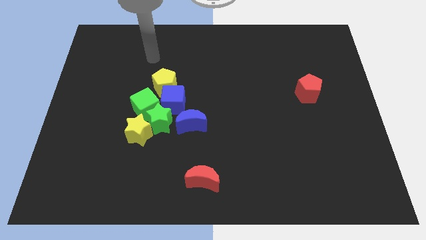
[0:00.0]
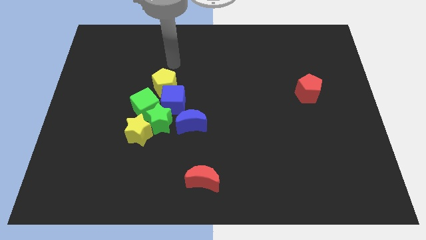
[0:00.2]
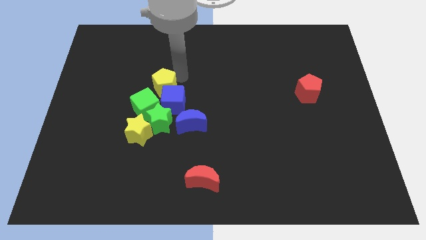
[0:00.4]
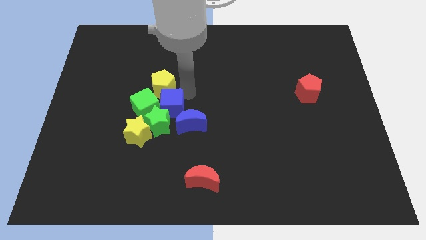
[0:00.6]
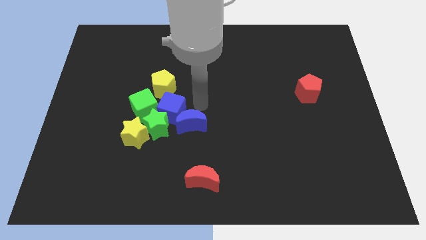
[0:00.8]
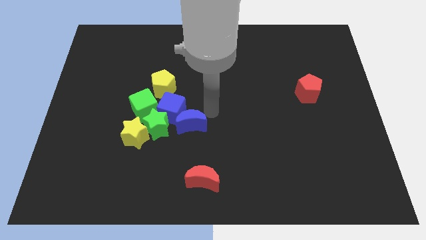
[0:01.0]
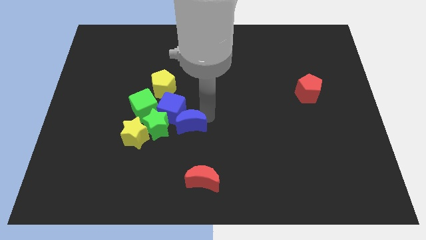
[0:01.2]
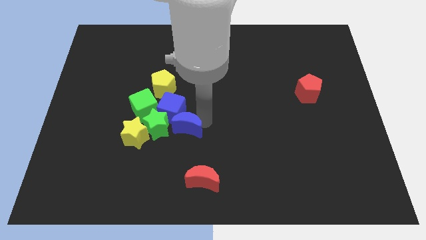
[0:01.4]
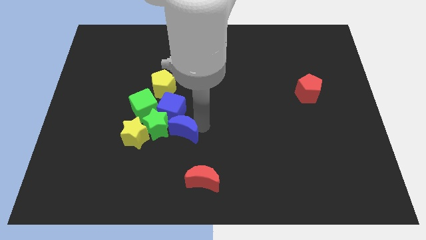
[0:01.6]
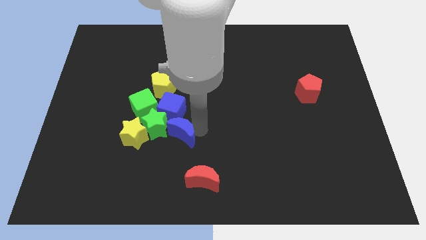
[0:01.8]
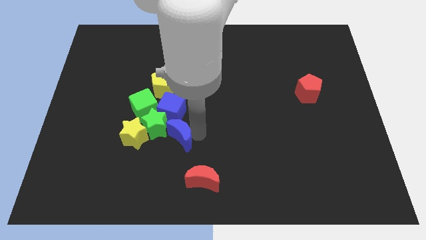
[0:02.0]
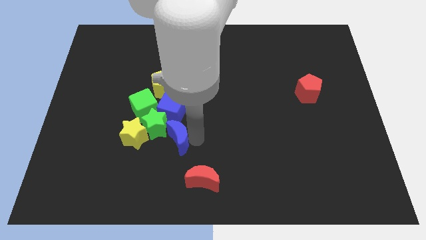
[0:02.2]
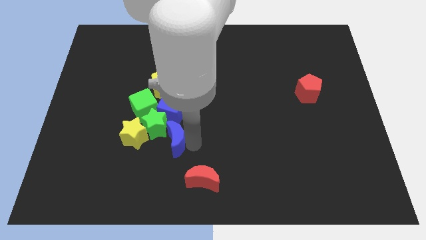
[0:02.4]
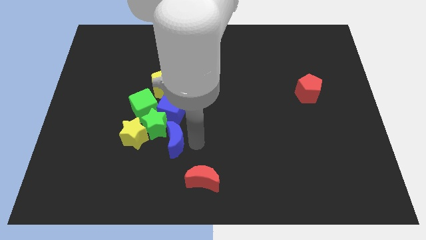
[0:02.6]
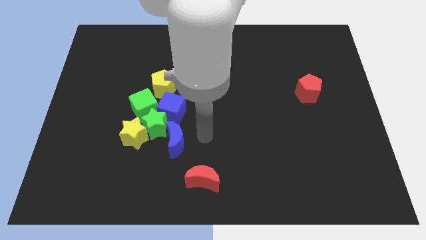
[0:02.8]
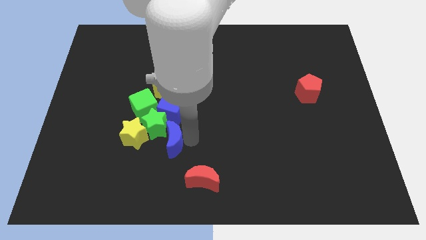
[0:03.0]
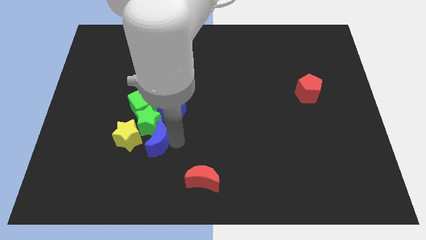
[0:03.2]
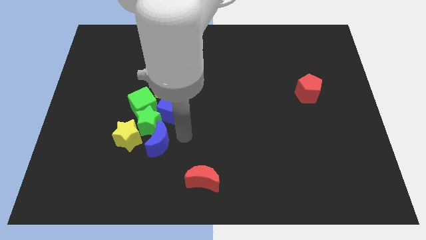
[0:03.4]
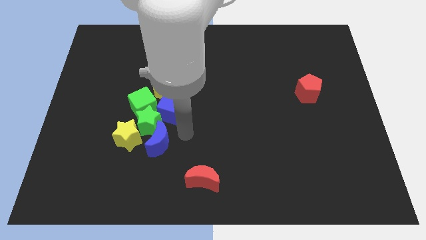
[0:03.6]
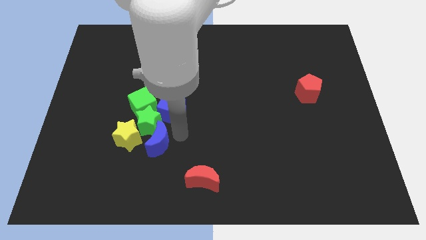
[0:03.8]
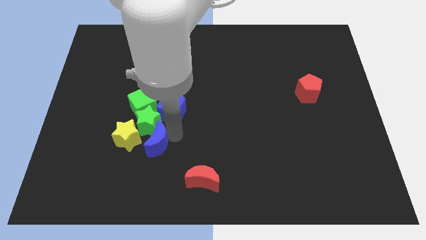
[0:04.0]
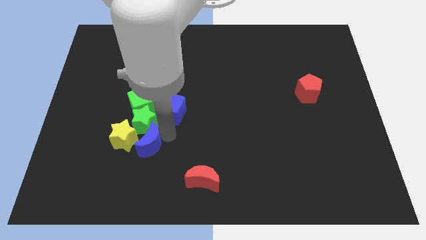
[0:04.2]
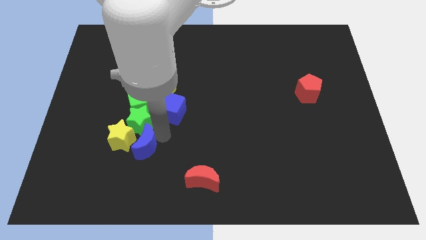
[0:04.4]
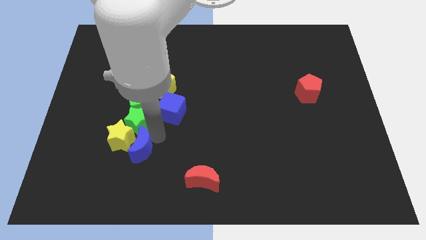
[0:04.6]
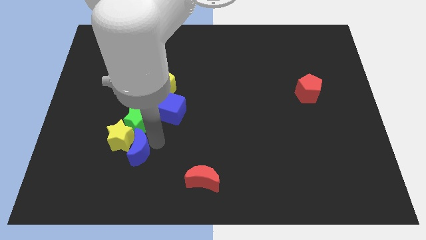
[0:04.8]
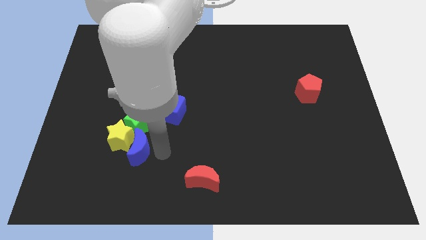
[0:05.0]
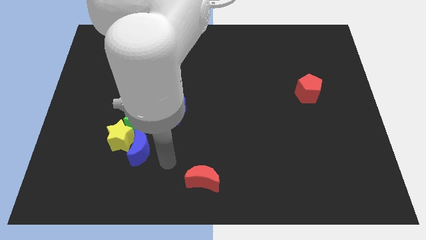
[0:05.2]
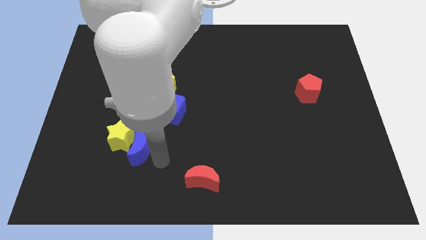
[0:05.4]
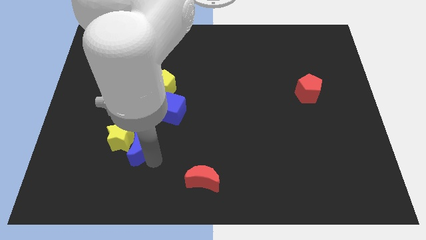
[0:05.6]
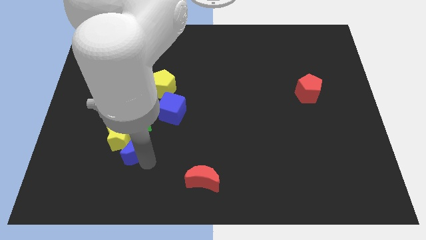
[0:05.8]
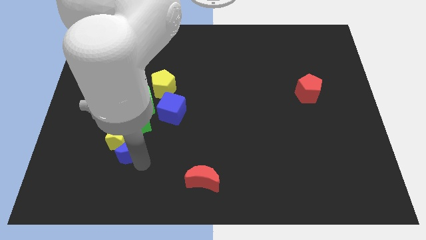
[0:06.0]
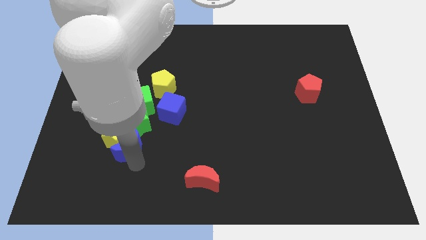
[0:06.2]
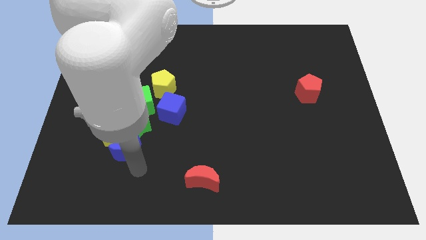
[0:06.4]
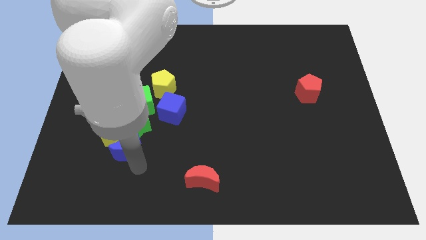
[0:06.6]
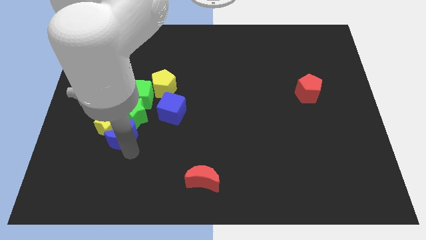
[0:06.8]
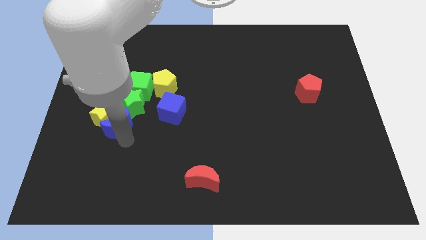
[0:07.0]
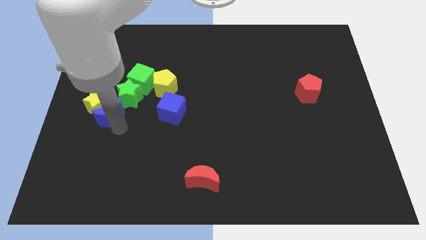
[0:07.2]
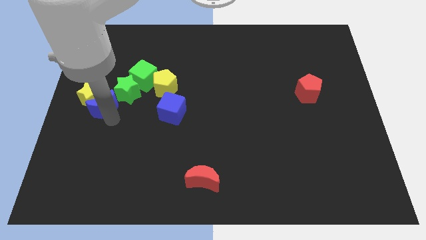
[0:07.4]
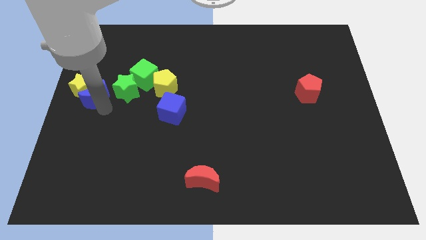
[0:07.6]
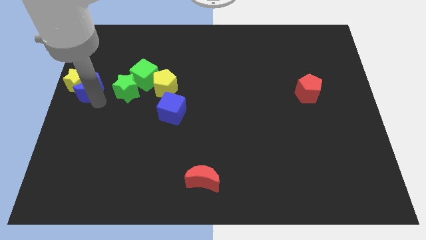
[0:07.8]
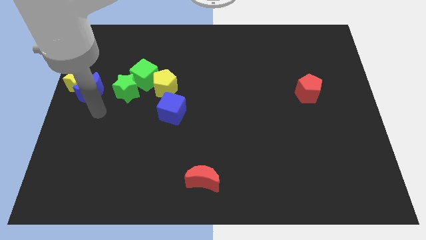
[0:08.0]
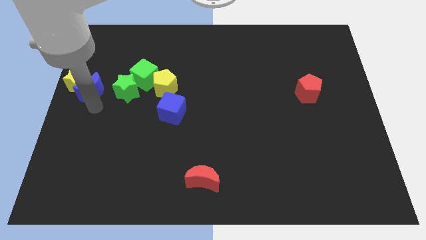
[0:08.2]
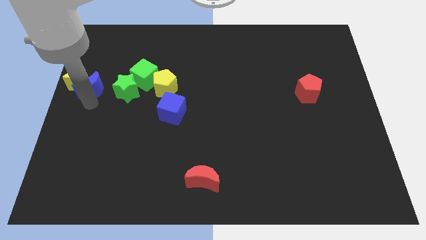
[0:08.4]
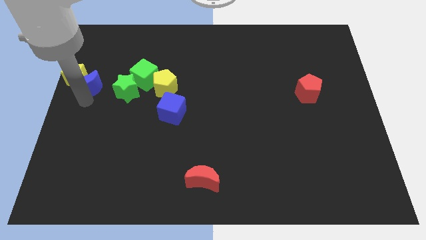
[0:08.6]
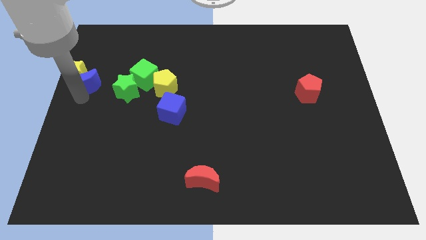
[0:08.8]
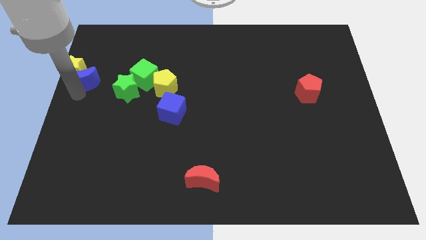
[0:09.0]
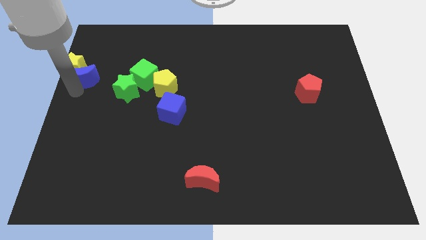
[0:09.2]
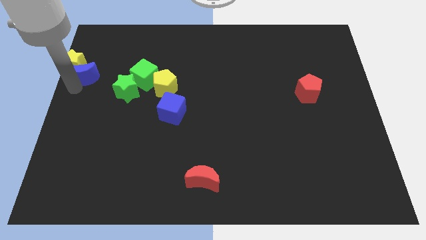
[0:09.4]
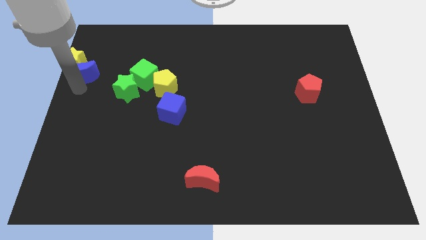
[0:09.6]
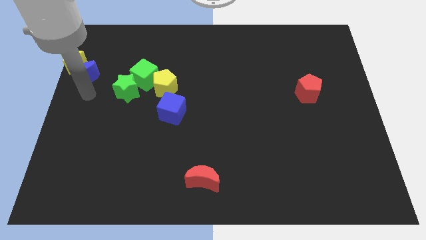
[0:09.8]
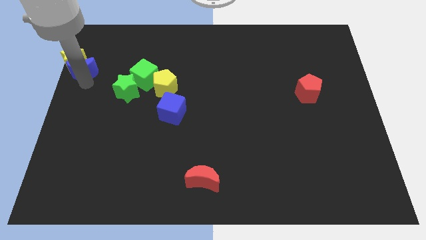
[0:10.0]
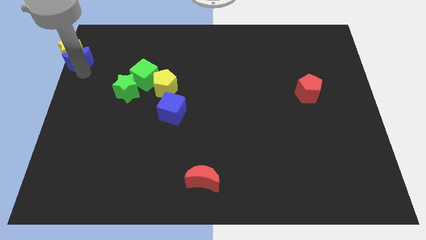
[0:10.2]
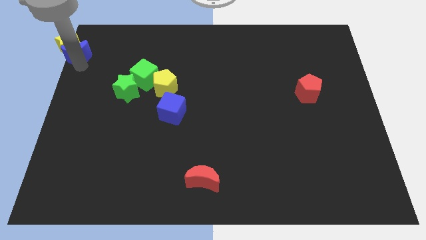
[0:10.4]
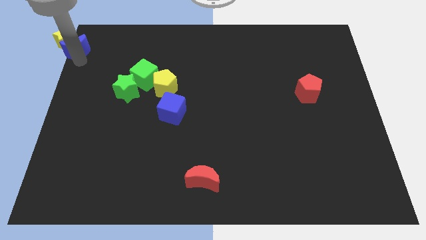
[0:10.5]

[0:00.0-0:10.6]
push the blue moon to the upper left corner

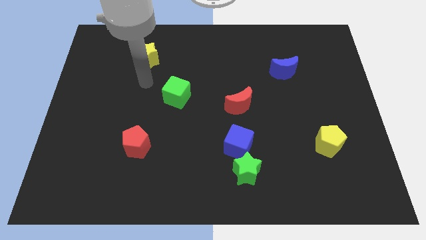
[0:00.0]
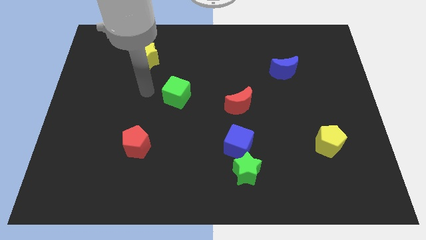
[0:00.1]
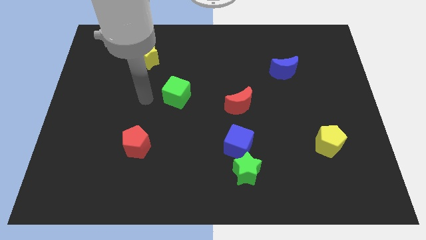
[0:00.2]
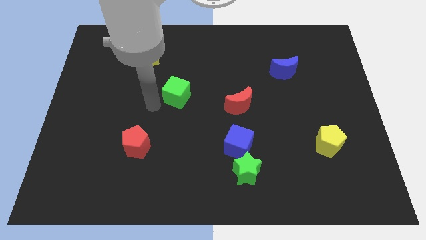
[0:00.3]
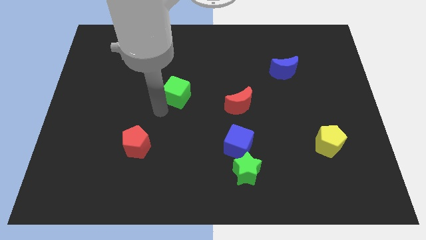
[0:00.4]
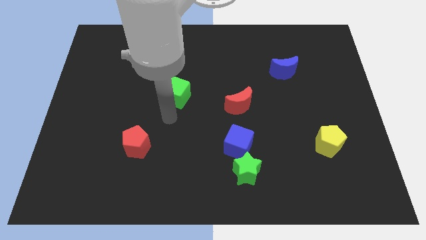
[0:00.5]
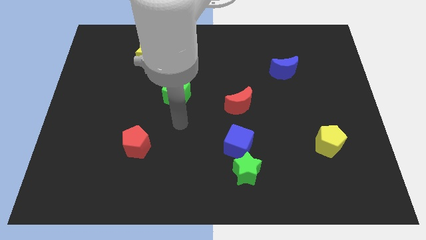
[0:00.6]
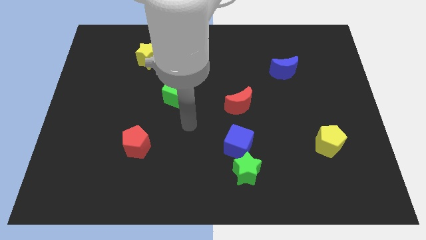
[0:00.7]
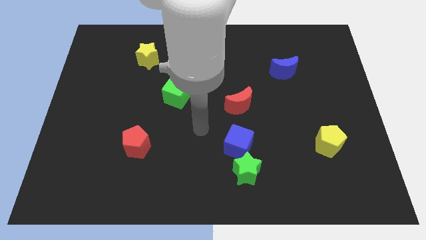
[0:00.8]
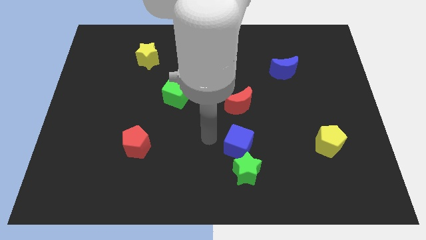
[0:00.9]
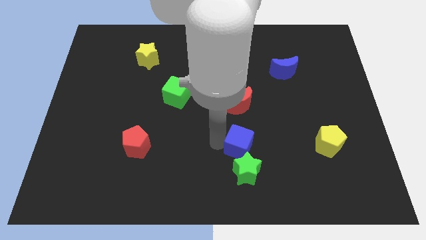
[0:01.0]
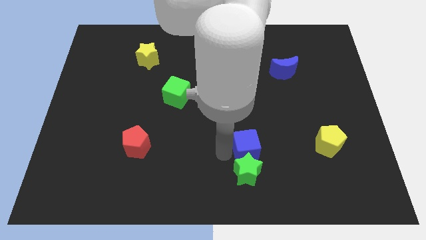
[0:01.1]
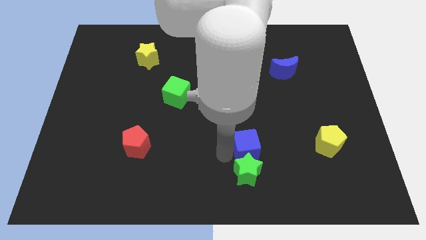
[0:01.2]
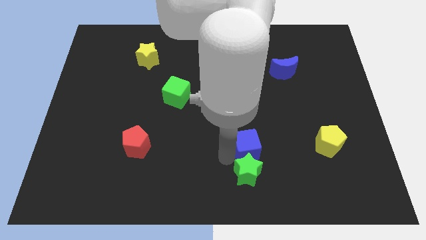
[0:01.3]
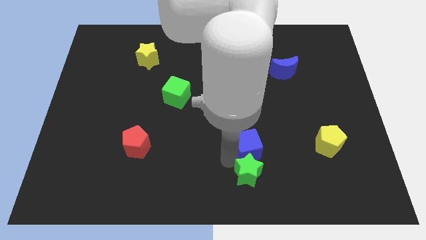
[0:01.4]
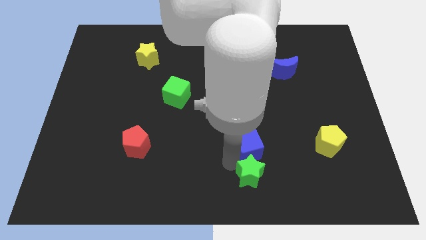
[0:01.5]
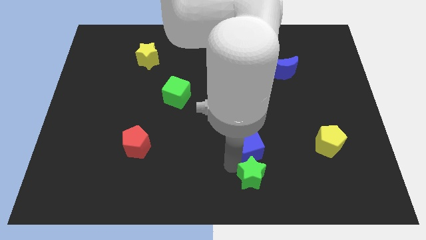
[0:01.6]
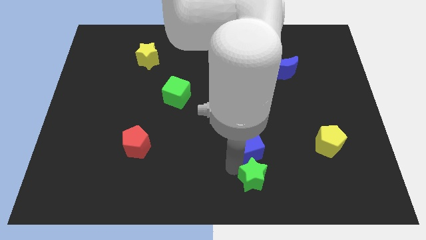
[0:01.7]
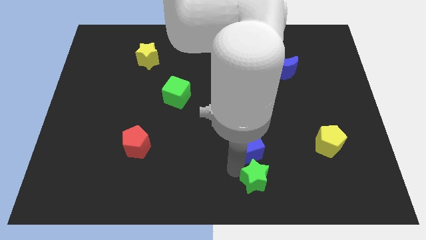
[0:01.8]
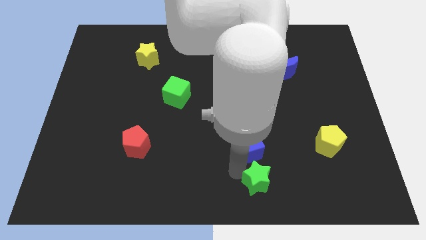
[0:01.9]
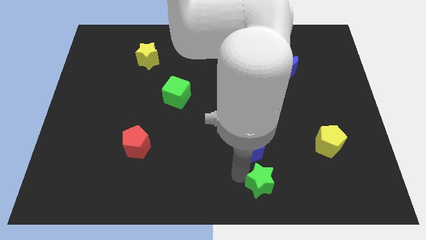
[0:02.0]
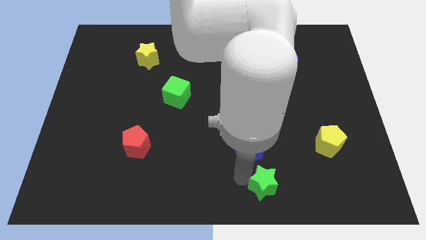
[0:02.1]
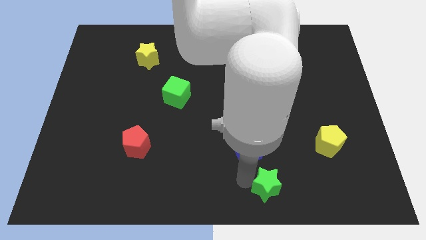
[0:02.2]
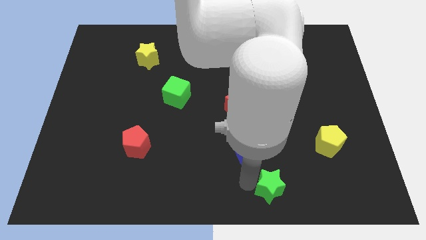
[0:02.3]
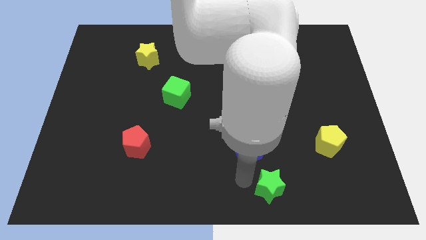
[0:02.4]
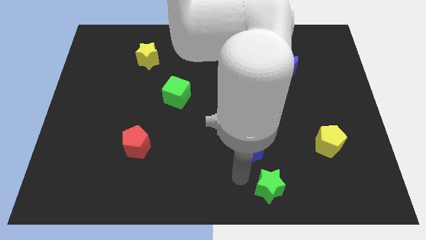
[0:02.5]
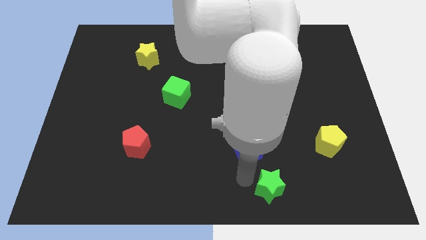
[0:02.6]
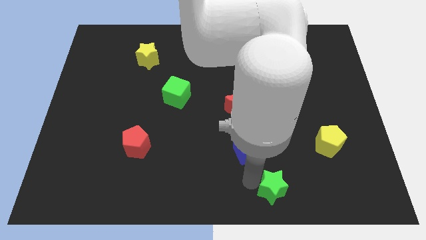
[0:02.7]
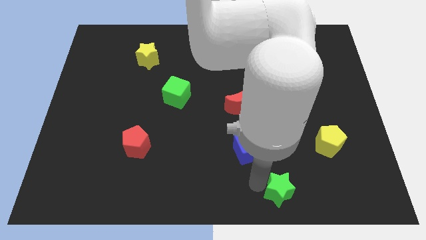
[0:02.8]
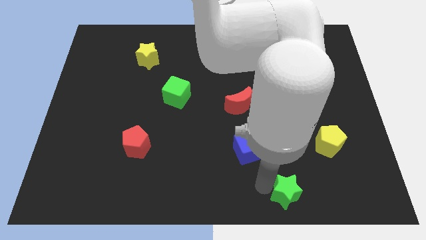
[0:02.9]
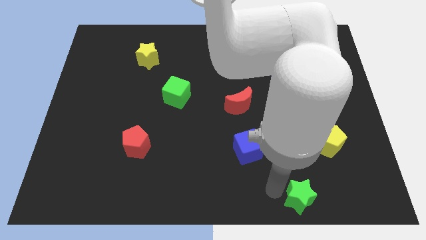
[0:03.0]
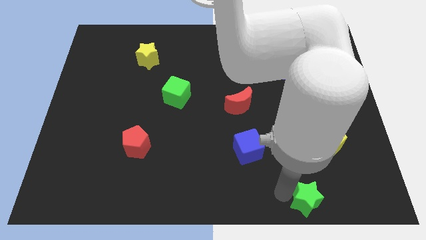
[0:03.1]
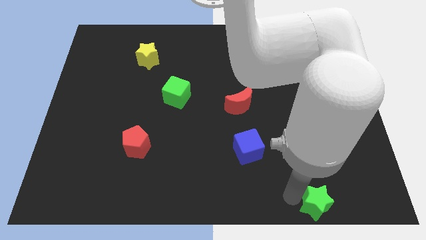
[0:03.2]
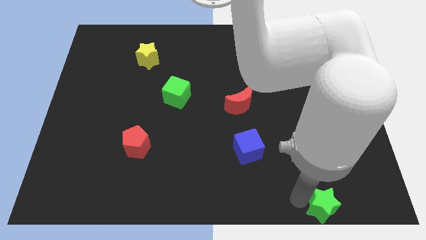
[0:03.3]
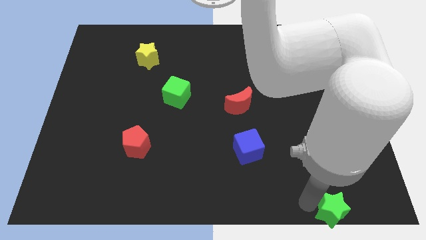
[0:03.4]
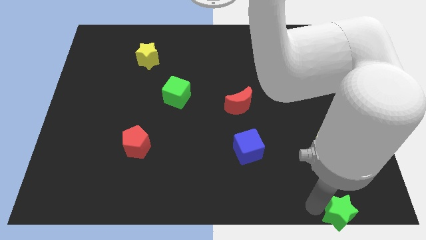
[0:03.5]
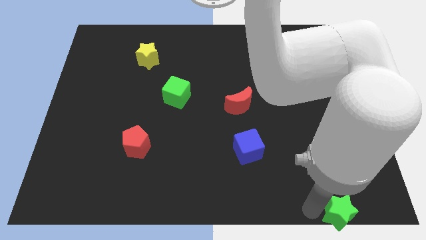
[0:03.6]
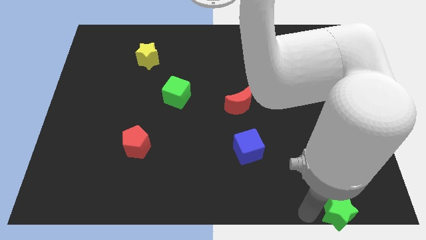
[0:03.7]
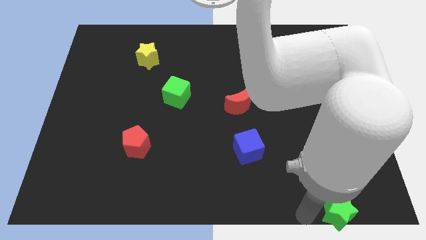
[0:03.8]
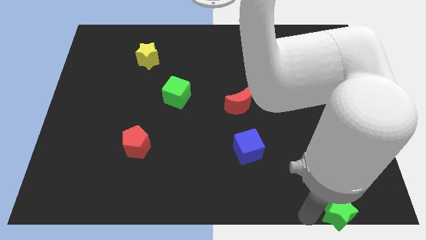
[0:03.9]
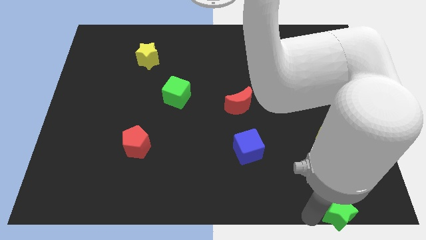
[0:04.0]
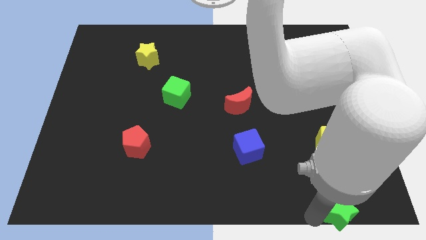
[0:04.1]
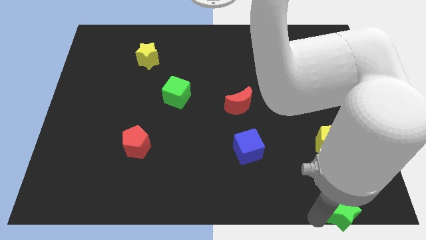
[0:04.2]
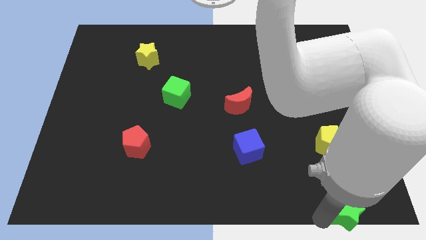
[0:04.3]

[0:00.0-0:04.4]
slide the green star to the bottom right corner
